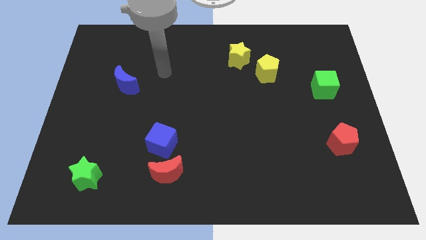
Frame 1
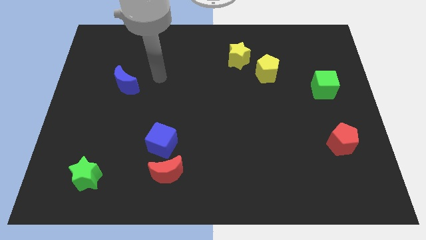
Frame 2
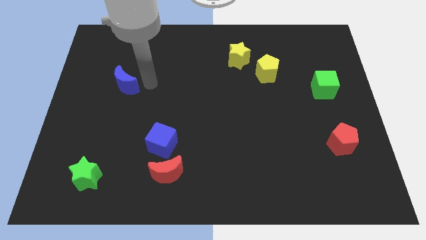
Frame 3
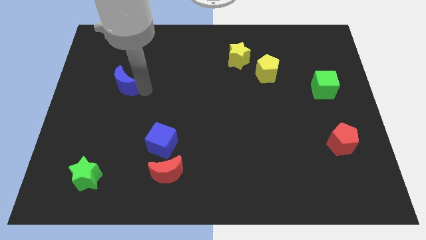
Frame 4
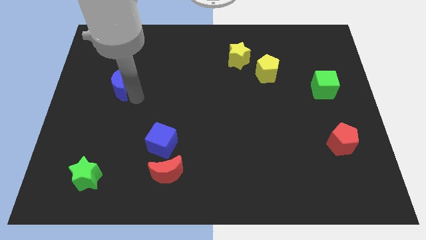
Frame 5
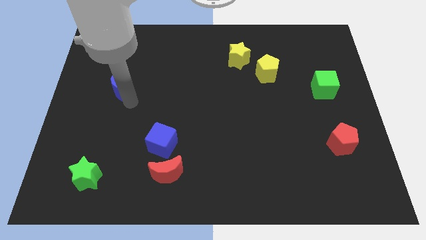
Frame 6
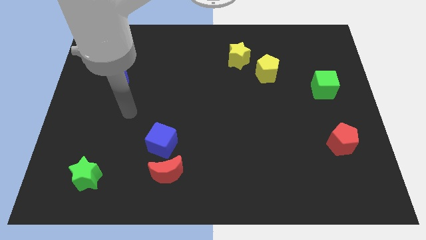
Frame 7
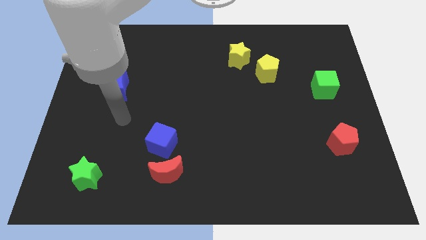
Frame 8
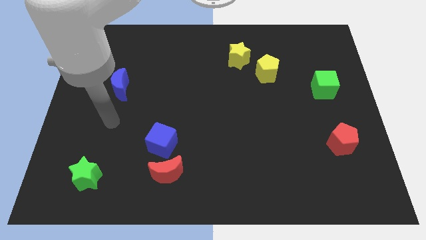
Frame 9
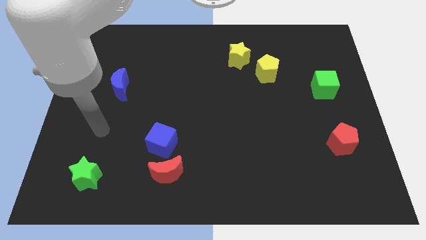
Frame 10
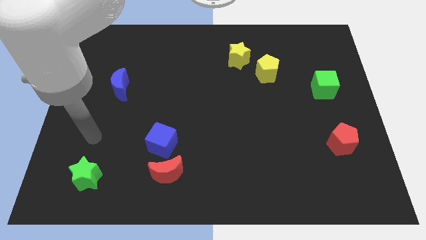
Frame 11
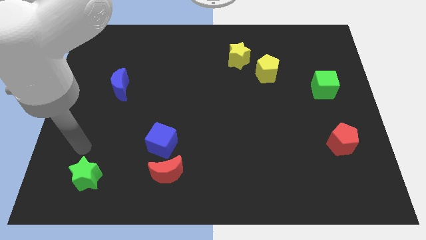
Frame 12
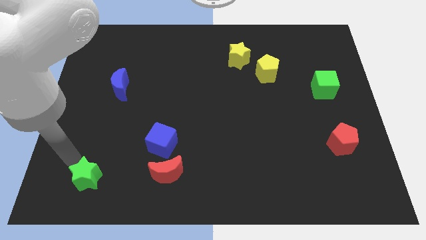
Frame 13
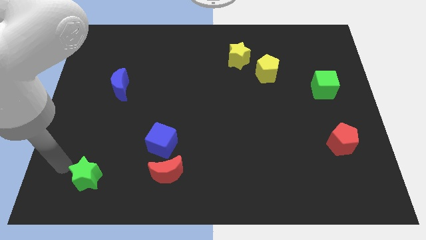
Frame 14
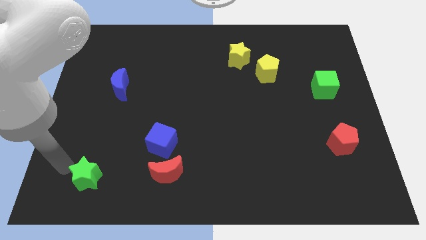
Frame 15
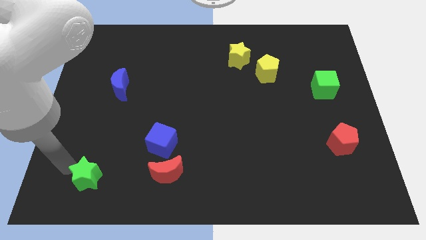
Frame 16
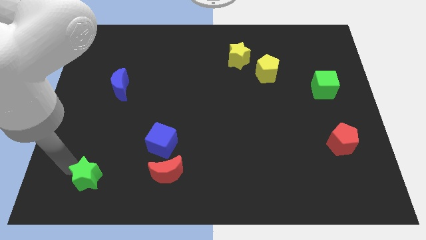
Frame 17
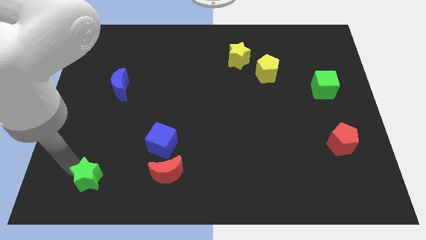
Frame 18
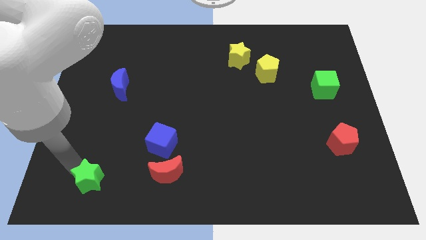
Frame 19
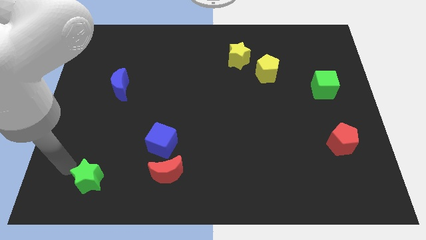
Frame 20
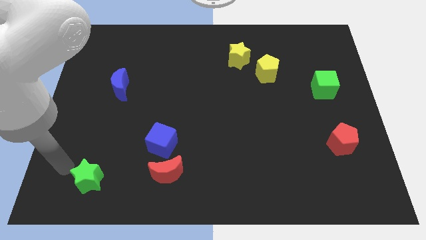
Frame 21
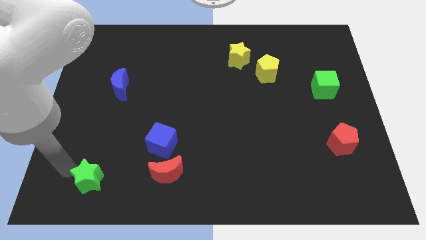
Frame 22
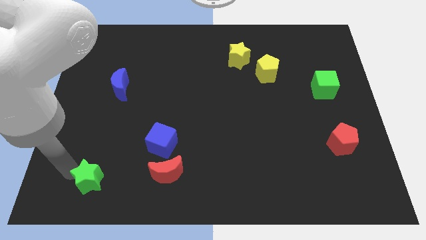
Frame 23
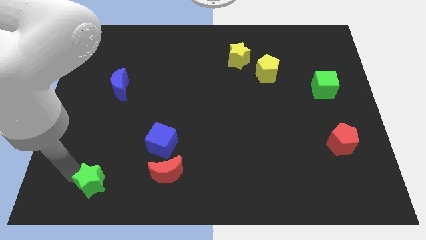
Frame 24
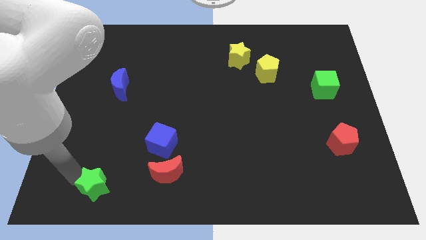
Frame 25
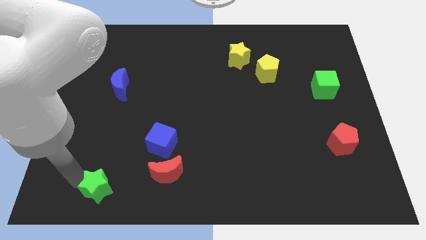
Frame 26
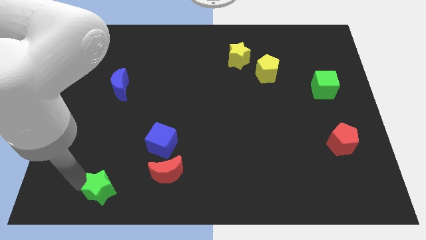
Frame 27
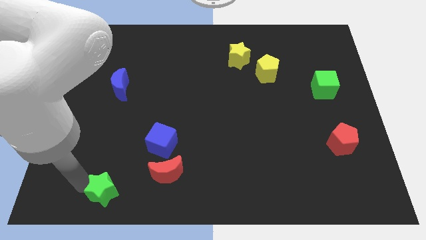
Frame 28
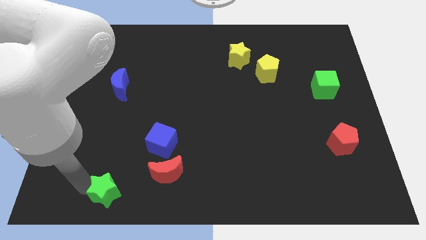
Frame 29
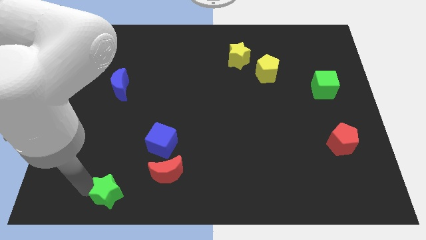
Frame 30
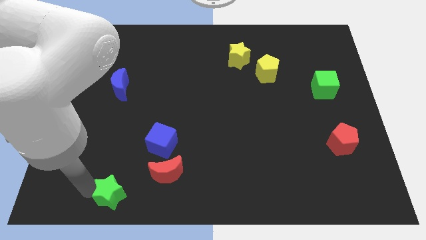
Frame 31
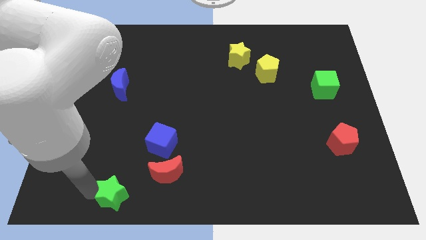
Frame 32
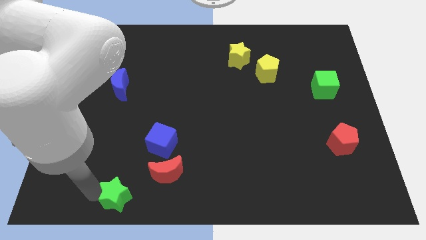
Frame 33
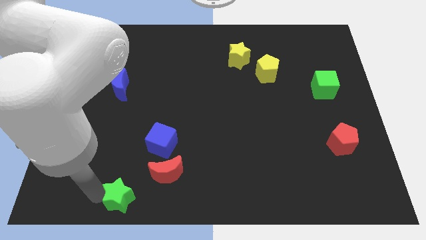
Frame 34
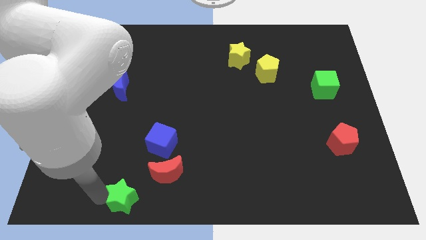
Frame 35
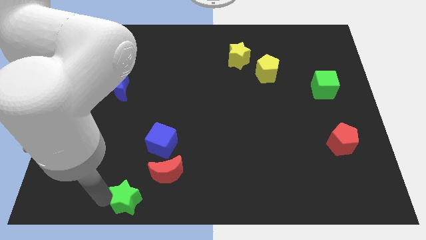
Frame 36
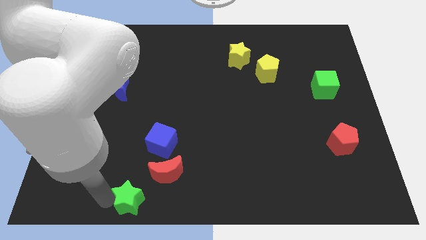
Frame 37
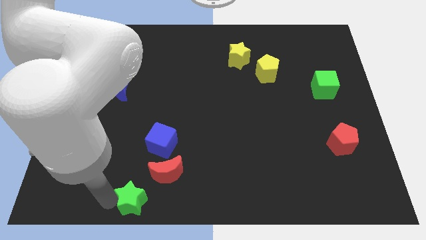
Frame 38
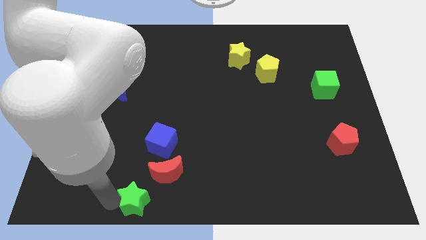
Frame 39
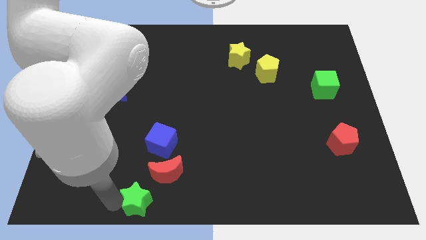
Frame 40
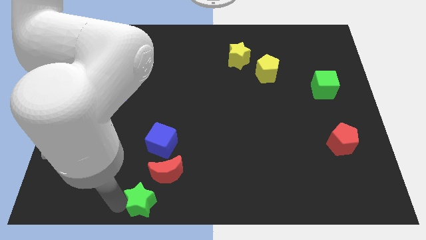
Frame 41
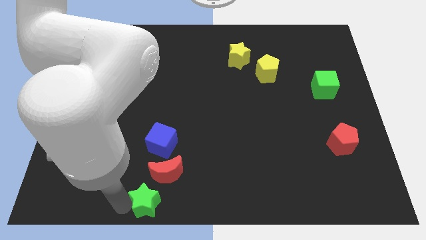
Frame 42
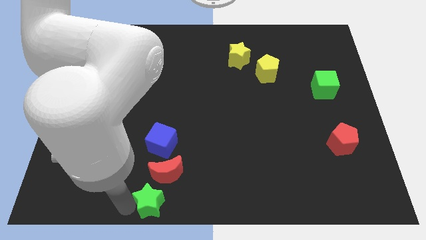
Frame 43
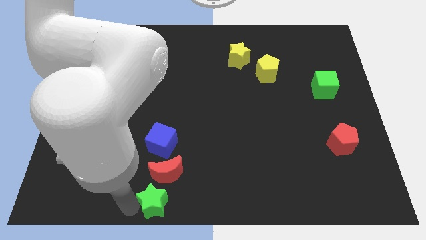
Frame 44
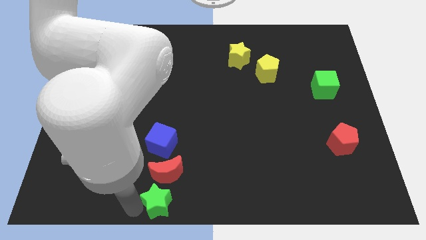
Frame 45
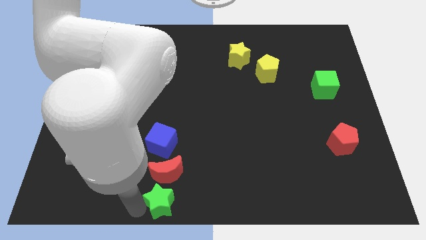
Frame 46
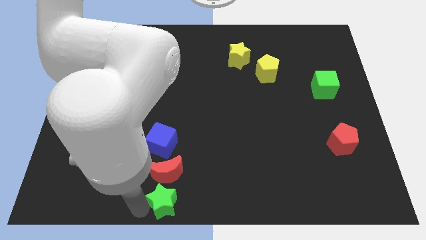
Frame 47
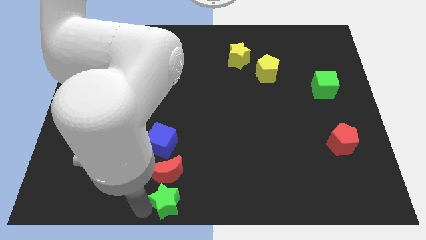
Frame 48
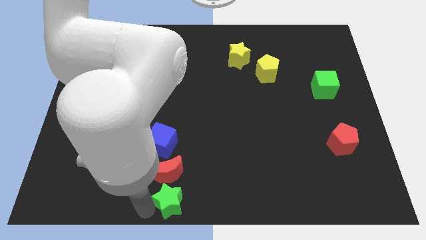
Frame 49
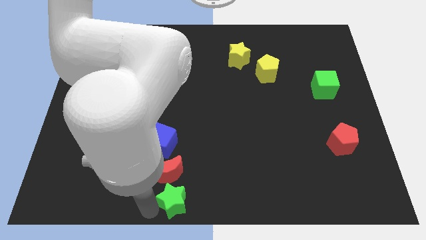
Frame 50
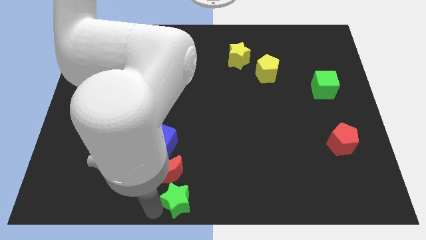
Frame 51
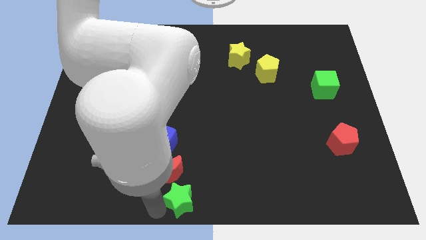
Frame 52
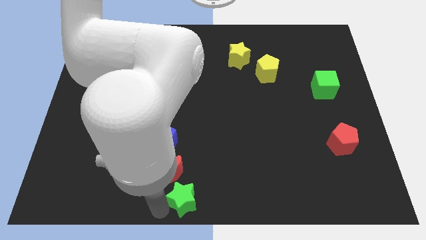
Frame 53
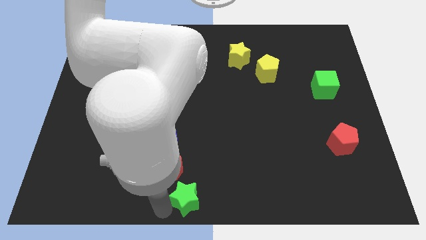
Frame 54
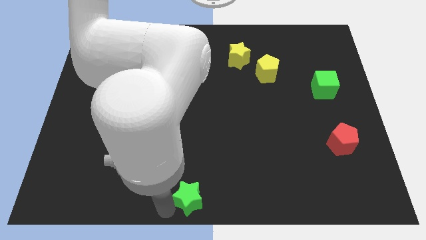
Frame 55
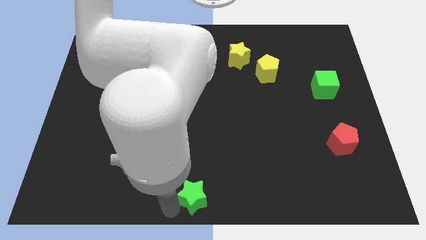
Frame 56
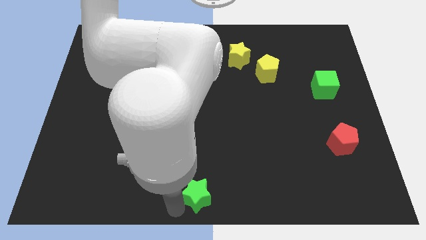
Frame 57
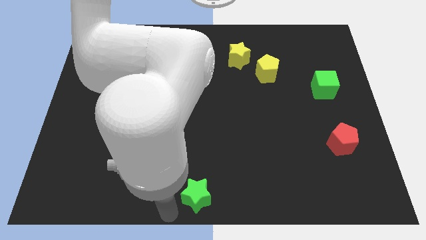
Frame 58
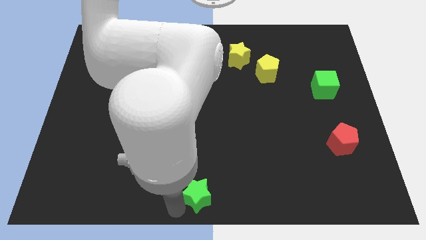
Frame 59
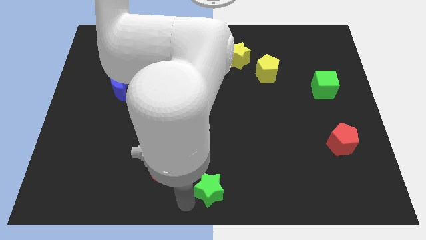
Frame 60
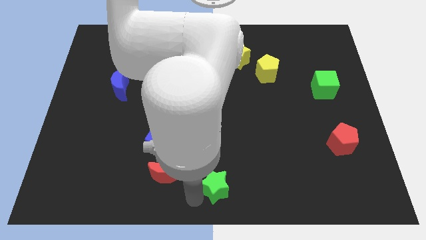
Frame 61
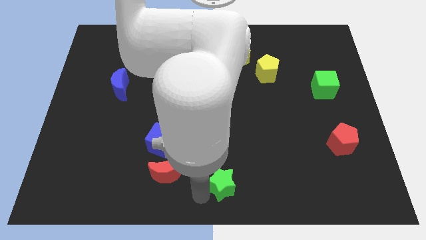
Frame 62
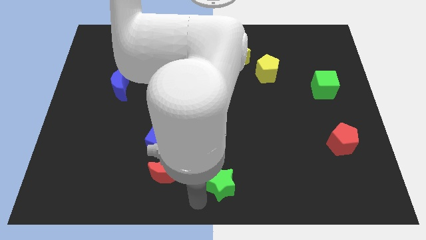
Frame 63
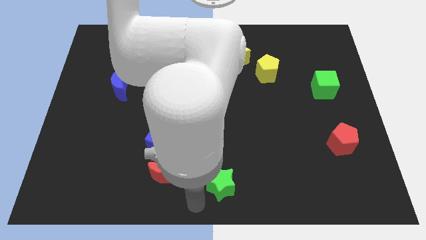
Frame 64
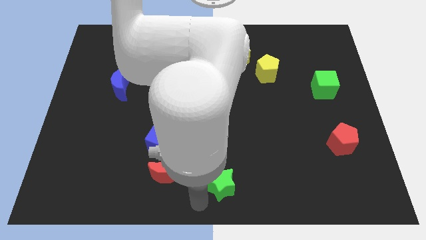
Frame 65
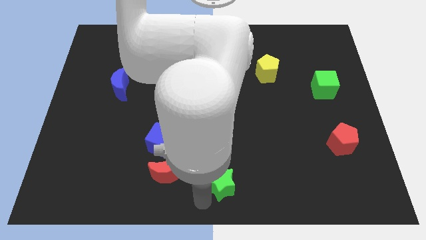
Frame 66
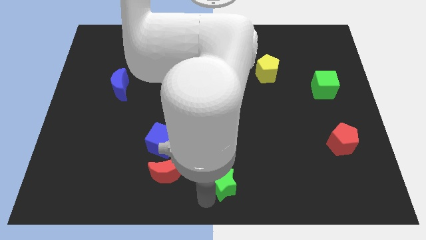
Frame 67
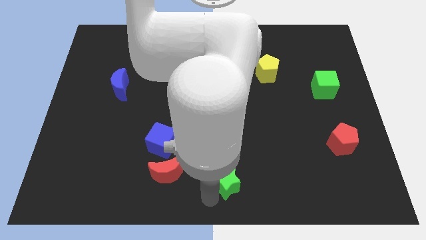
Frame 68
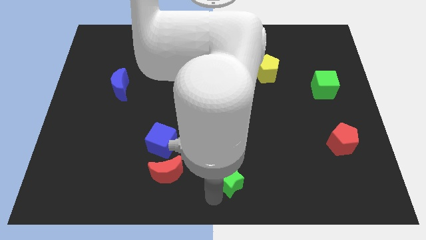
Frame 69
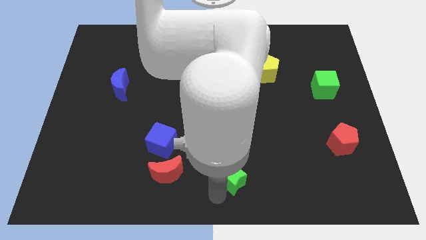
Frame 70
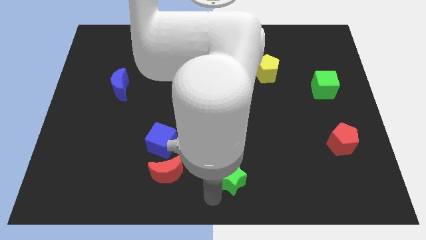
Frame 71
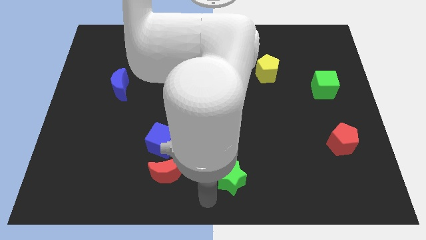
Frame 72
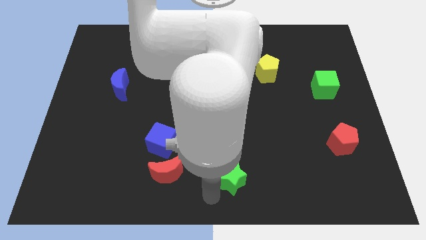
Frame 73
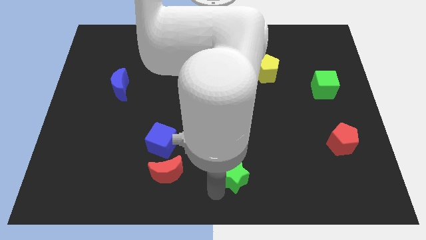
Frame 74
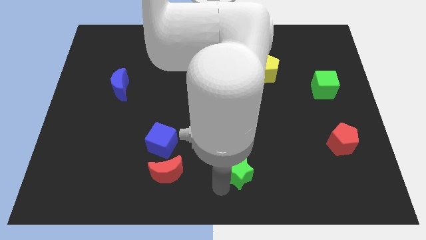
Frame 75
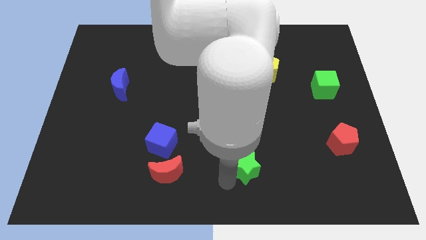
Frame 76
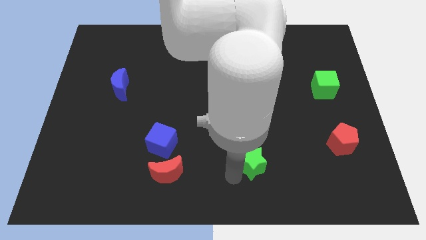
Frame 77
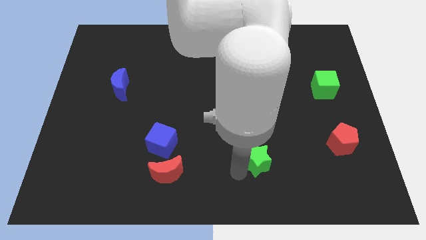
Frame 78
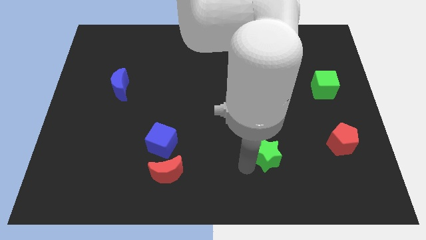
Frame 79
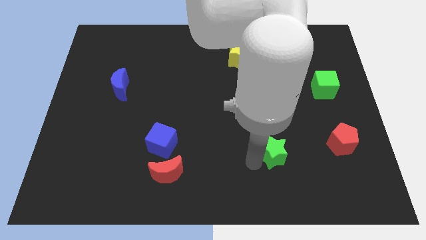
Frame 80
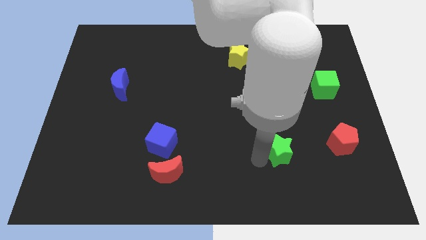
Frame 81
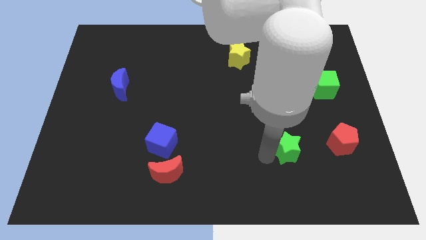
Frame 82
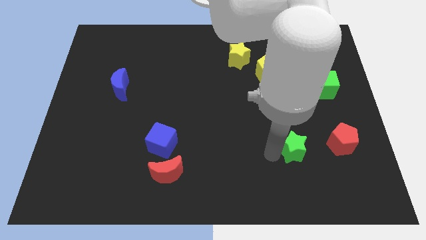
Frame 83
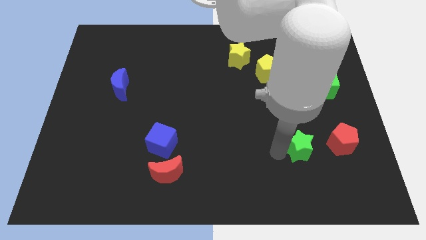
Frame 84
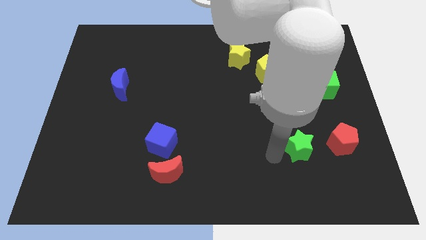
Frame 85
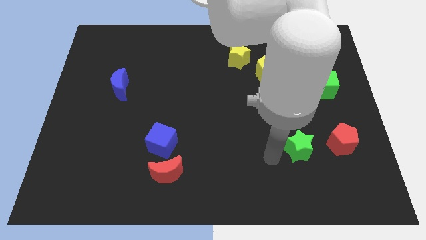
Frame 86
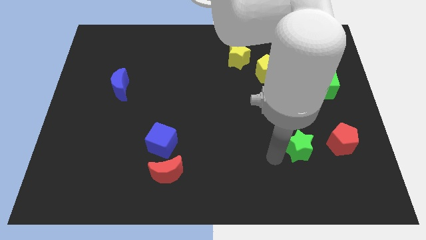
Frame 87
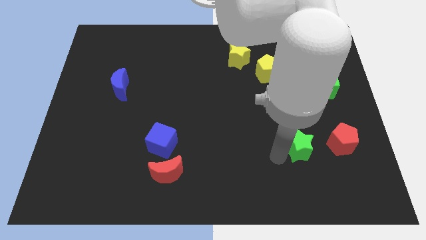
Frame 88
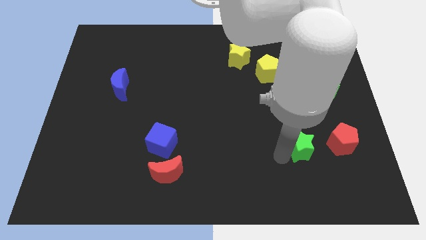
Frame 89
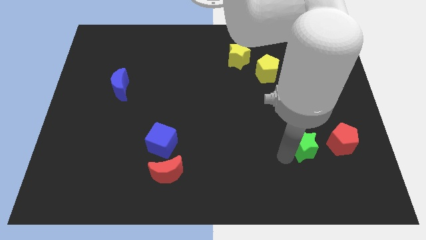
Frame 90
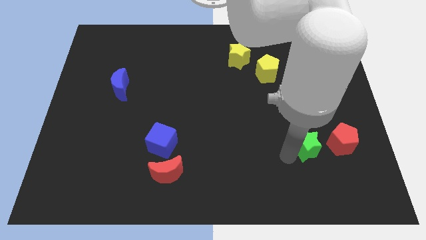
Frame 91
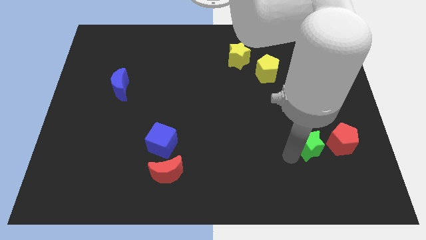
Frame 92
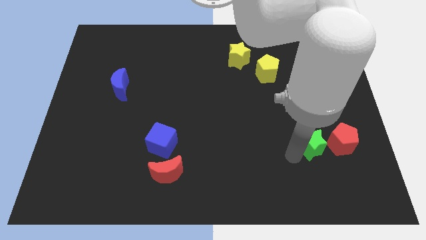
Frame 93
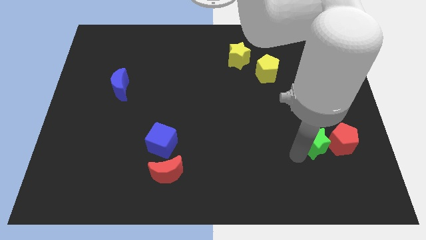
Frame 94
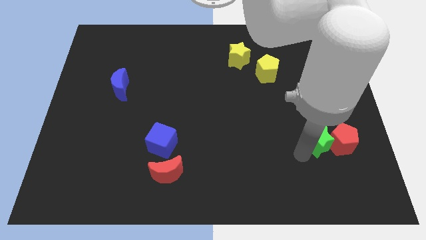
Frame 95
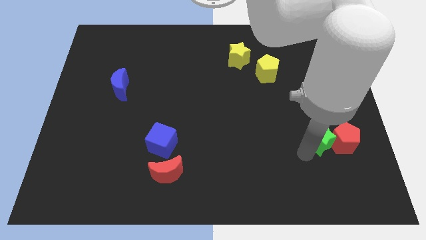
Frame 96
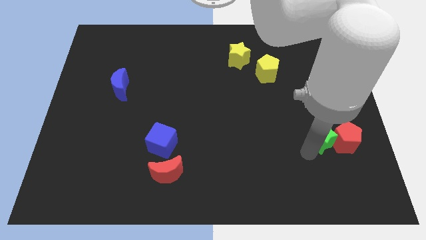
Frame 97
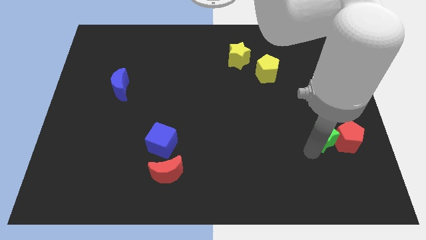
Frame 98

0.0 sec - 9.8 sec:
move the green star below the green cube
